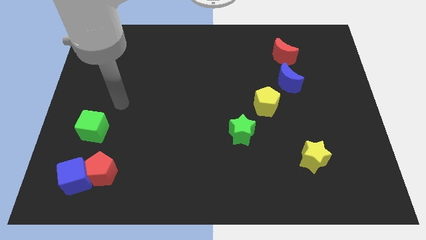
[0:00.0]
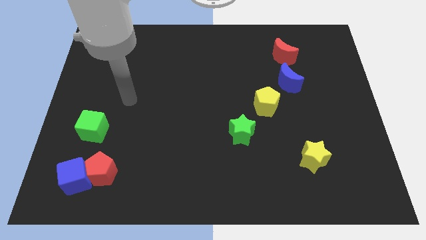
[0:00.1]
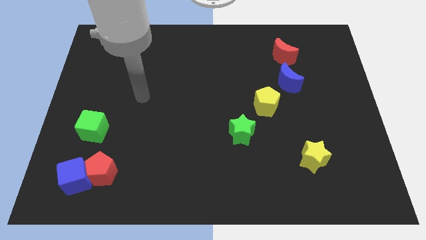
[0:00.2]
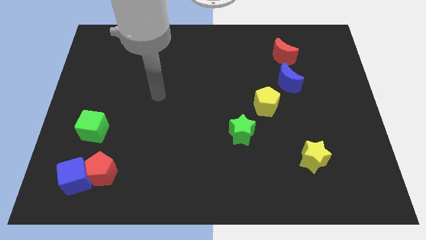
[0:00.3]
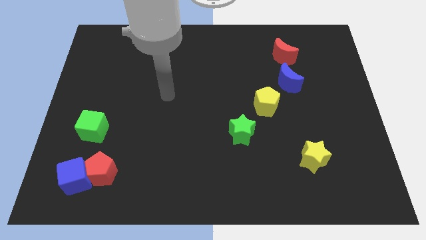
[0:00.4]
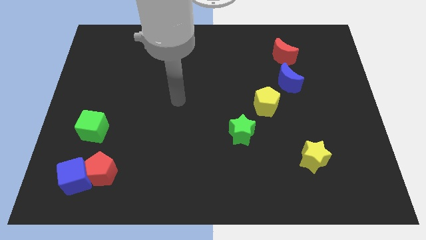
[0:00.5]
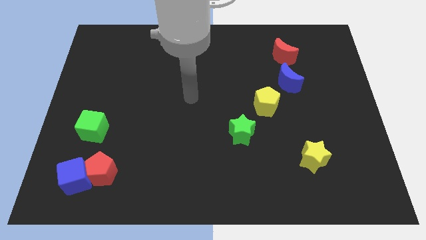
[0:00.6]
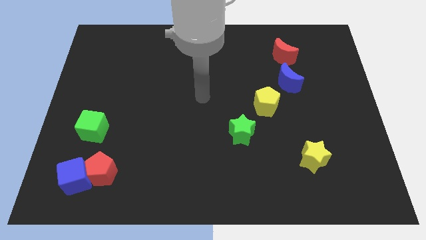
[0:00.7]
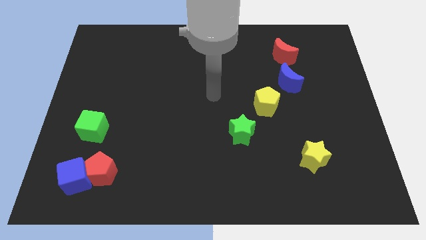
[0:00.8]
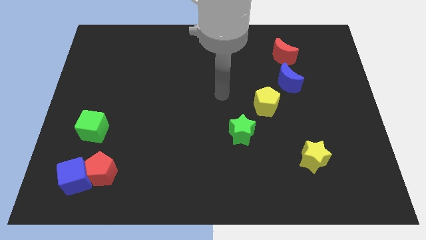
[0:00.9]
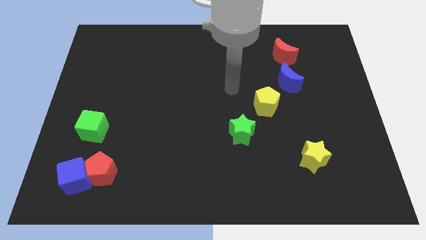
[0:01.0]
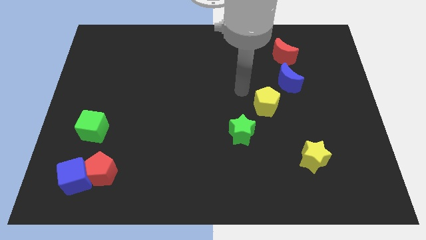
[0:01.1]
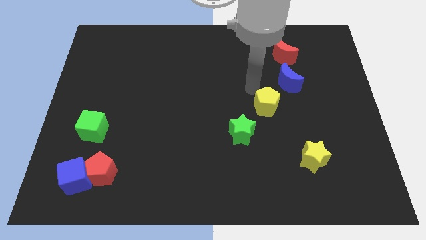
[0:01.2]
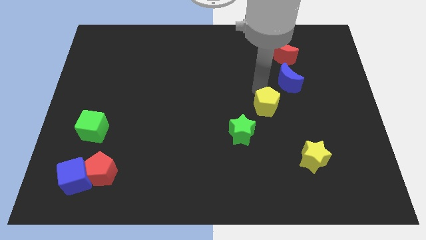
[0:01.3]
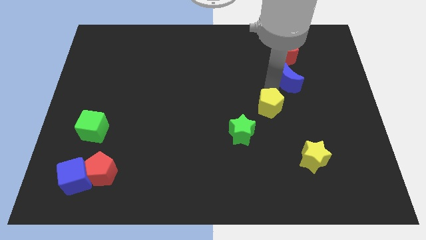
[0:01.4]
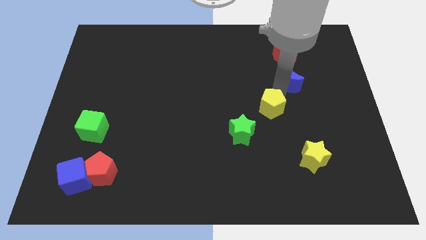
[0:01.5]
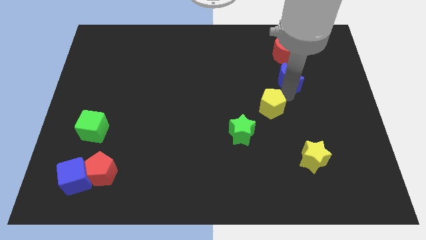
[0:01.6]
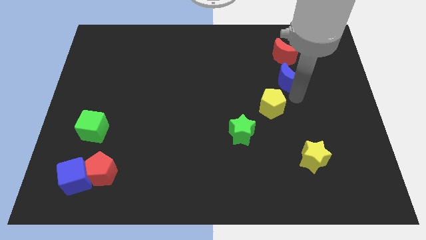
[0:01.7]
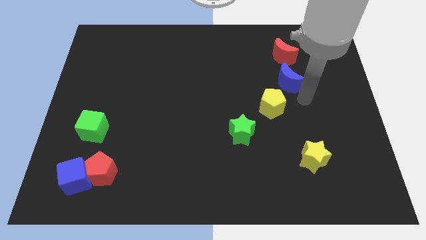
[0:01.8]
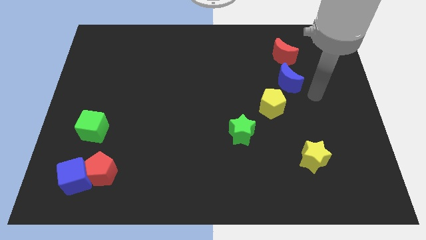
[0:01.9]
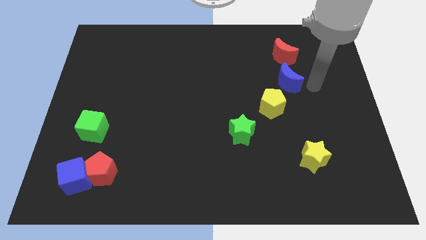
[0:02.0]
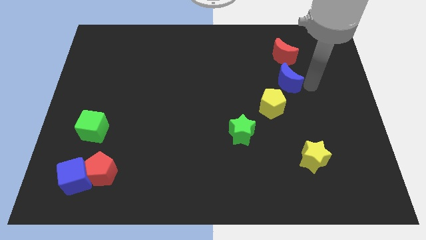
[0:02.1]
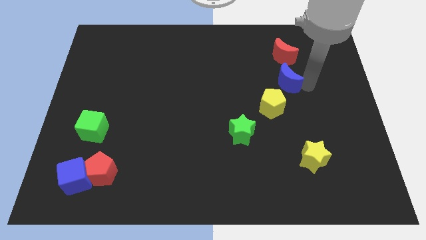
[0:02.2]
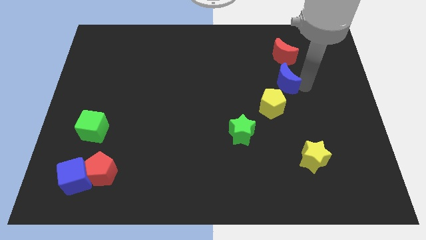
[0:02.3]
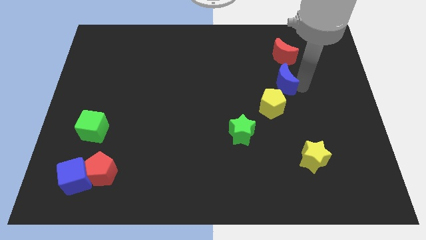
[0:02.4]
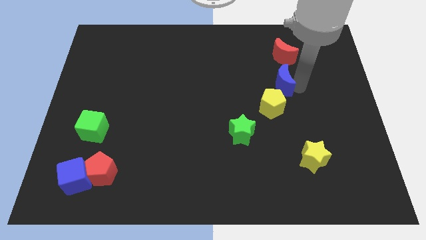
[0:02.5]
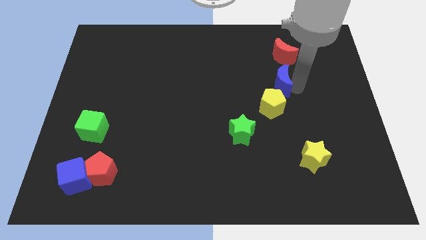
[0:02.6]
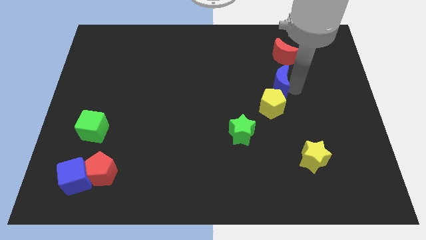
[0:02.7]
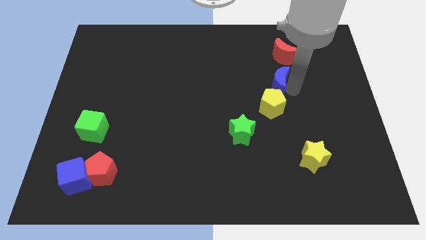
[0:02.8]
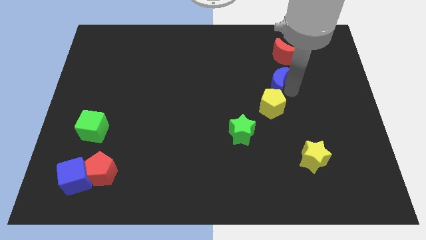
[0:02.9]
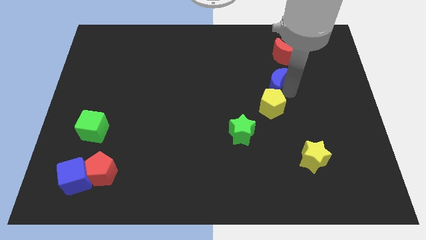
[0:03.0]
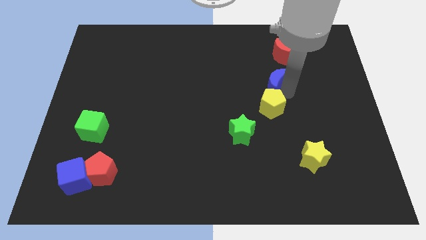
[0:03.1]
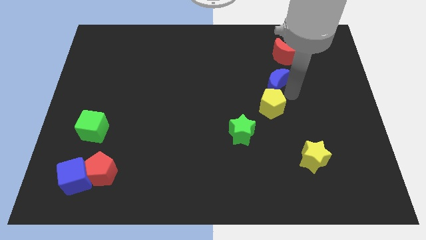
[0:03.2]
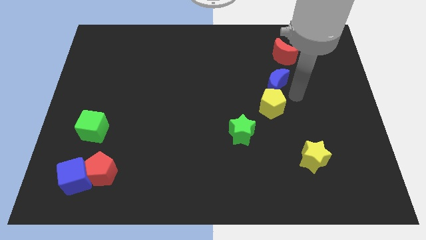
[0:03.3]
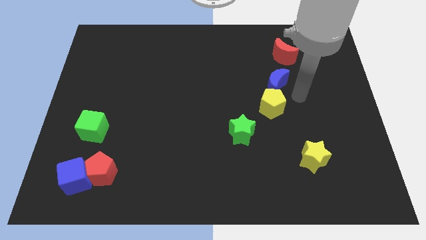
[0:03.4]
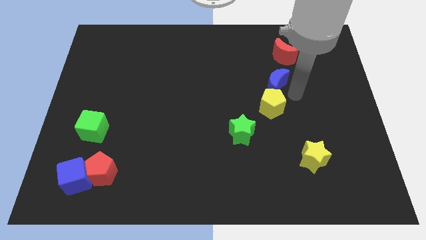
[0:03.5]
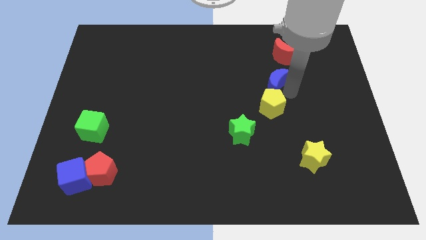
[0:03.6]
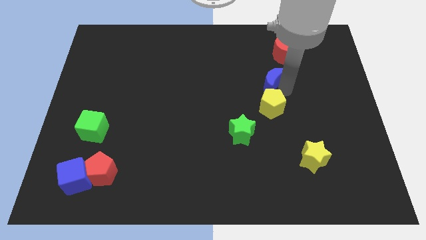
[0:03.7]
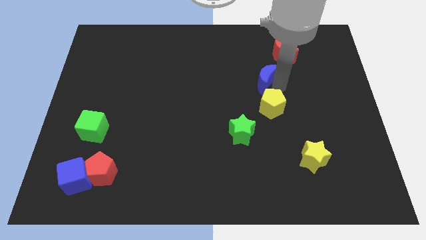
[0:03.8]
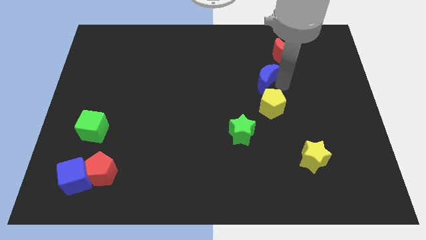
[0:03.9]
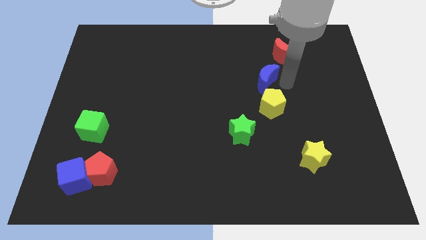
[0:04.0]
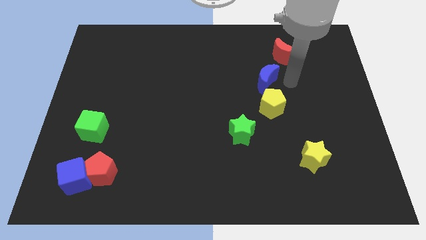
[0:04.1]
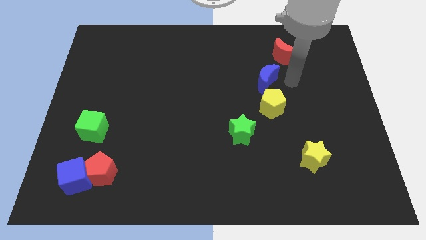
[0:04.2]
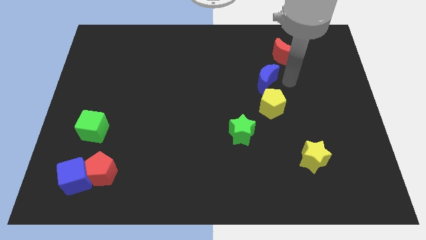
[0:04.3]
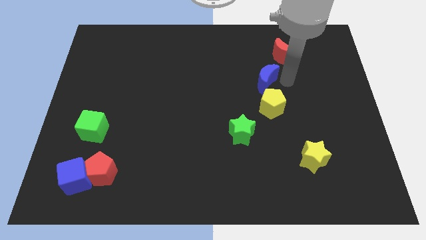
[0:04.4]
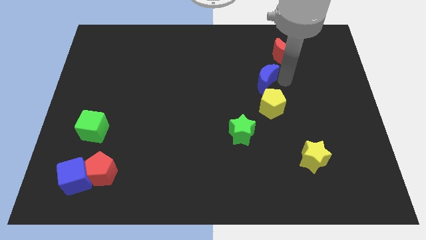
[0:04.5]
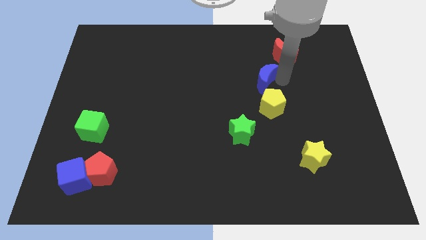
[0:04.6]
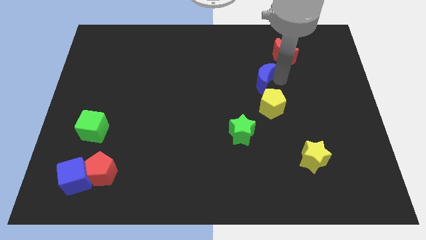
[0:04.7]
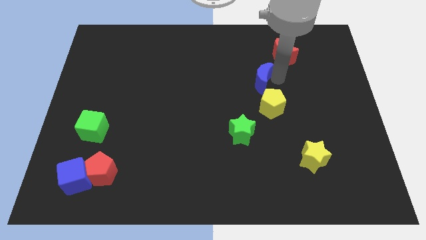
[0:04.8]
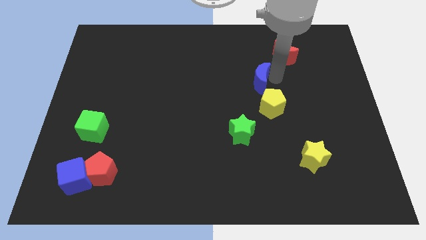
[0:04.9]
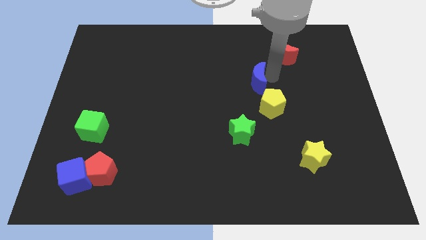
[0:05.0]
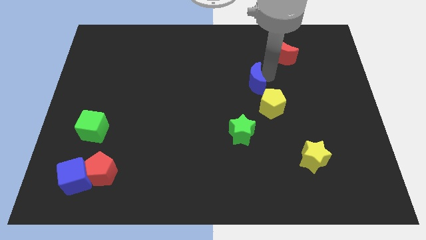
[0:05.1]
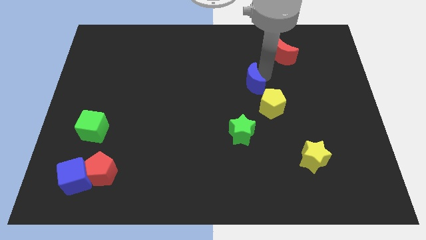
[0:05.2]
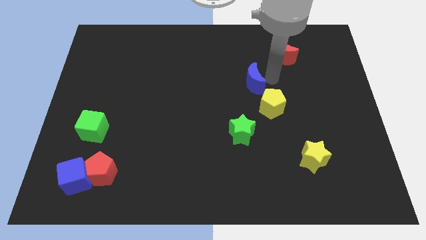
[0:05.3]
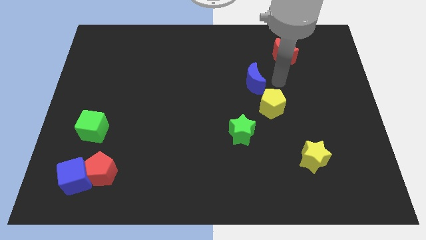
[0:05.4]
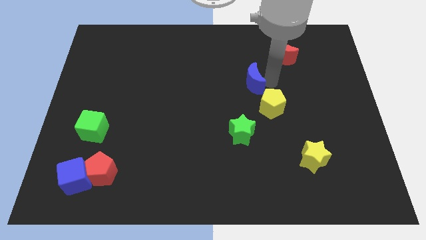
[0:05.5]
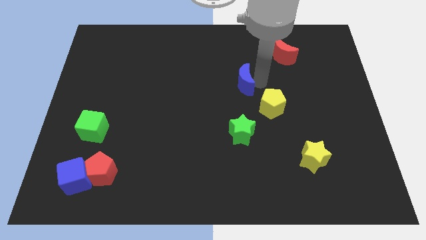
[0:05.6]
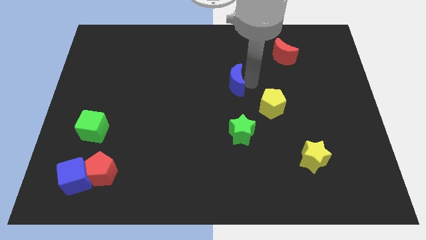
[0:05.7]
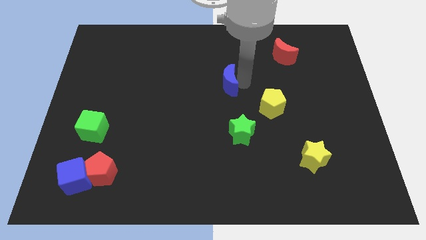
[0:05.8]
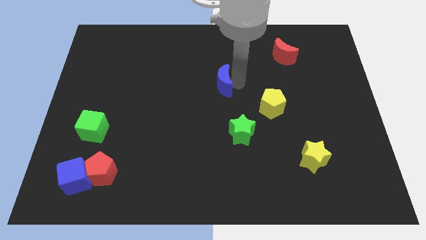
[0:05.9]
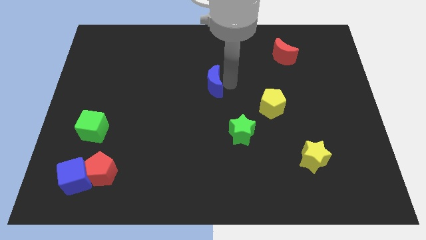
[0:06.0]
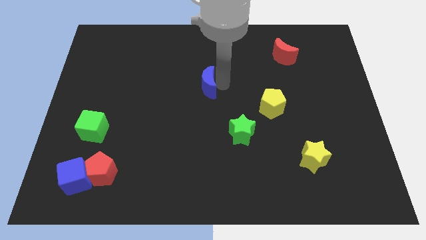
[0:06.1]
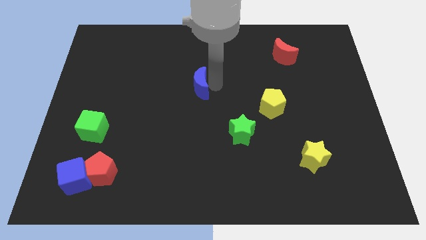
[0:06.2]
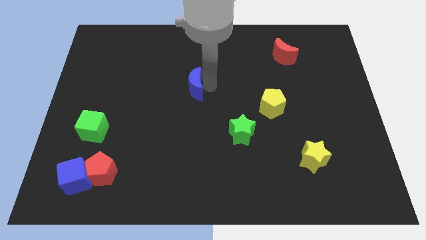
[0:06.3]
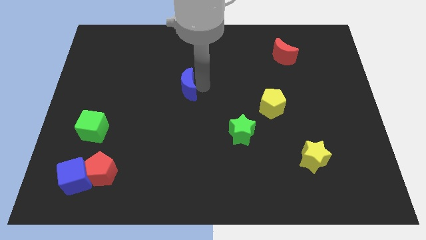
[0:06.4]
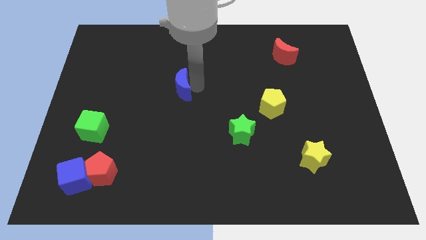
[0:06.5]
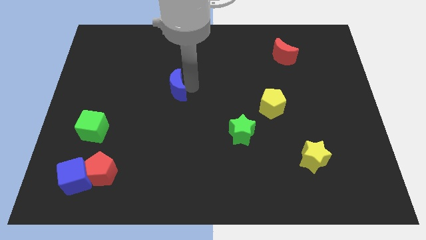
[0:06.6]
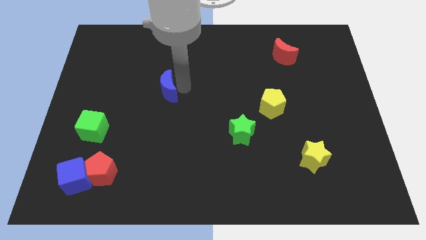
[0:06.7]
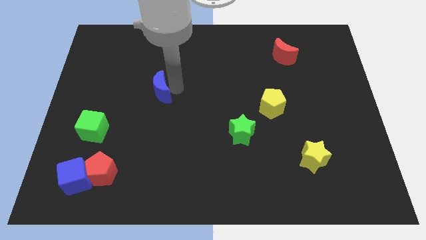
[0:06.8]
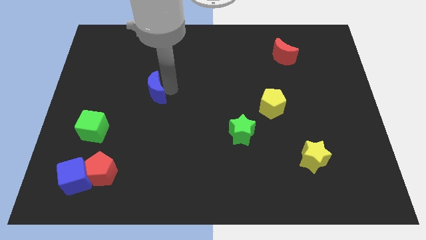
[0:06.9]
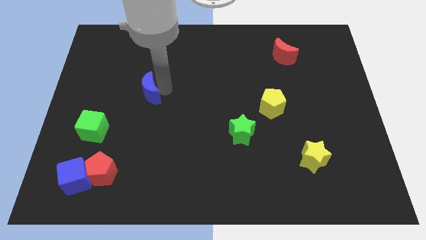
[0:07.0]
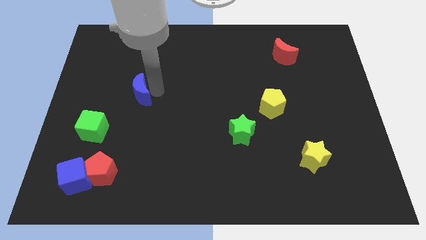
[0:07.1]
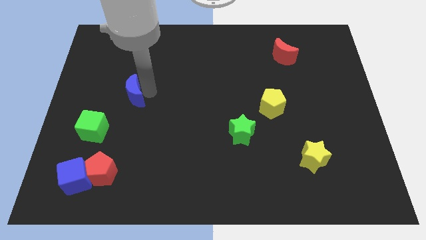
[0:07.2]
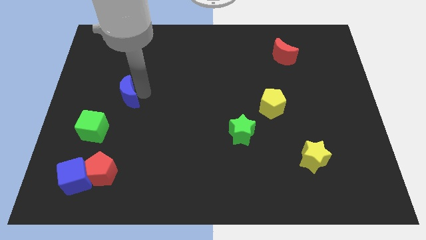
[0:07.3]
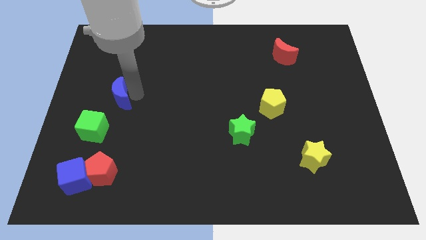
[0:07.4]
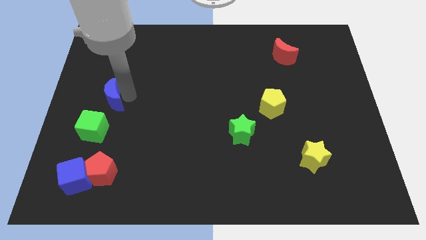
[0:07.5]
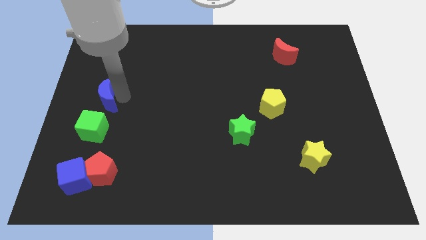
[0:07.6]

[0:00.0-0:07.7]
push the blue moon to the left side of the board
